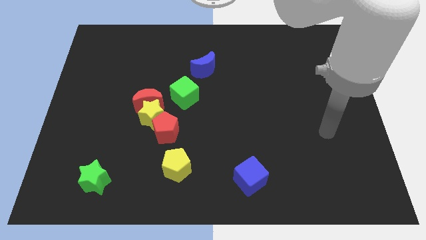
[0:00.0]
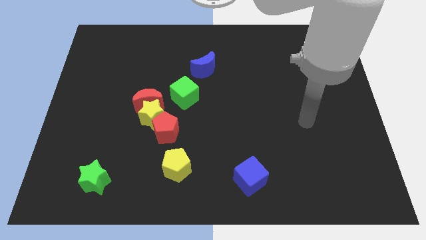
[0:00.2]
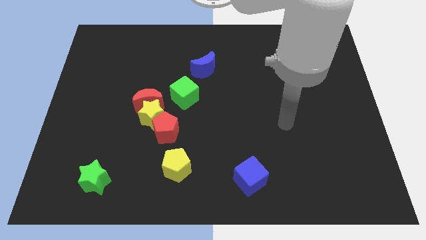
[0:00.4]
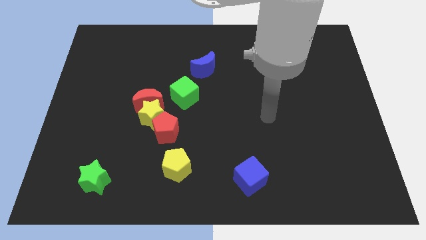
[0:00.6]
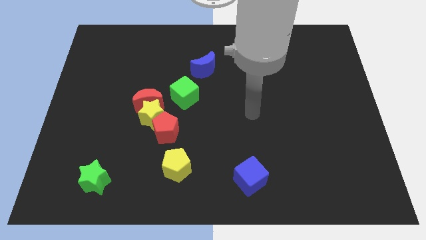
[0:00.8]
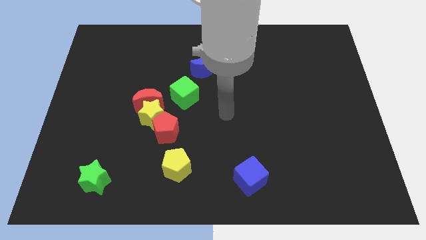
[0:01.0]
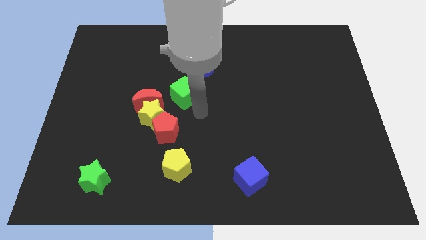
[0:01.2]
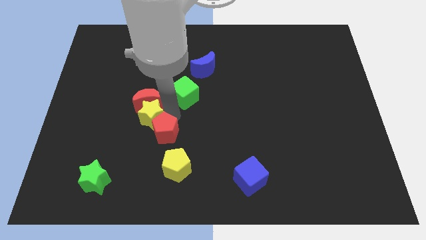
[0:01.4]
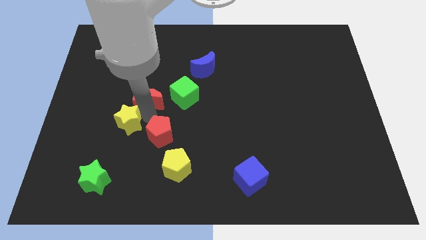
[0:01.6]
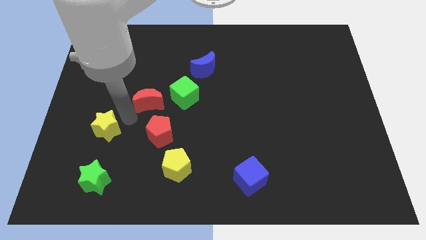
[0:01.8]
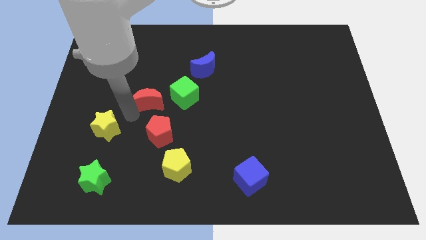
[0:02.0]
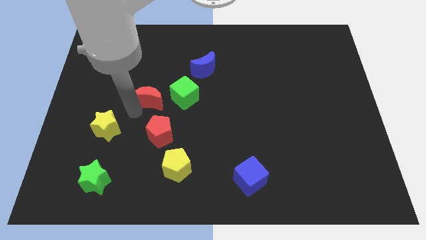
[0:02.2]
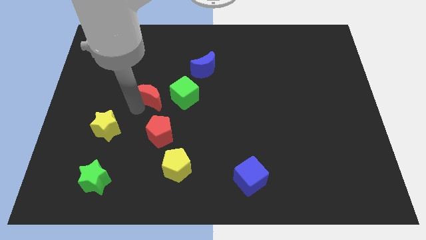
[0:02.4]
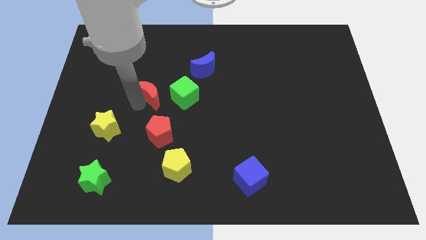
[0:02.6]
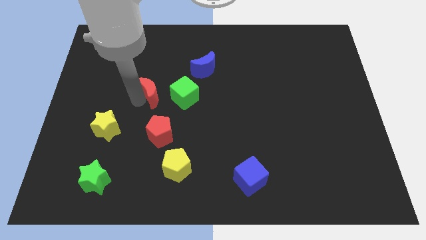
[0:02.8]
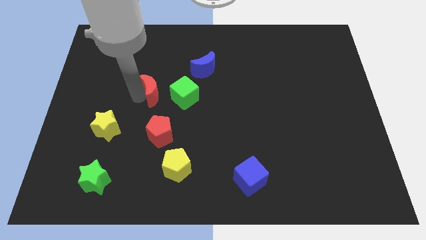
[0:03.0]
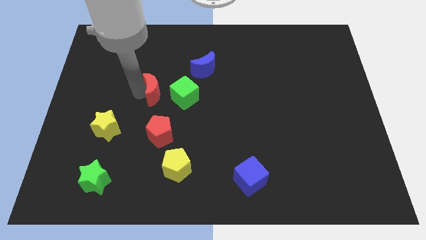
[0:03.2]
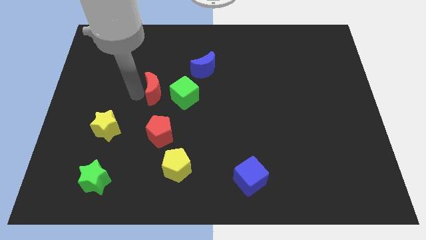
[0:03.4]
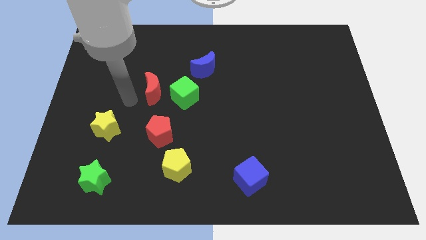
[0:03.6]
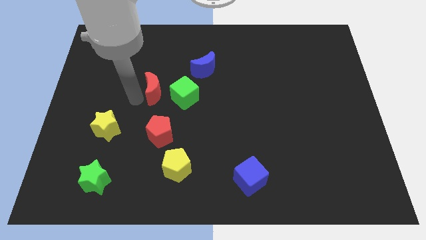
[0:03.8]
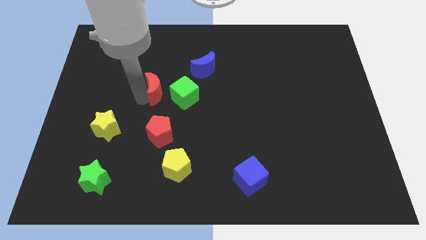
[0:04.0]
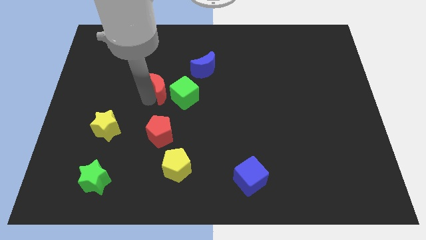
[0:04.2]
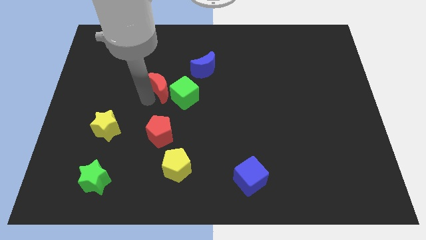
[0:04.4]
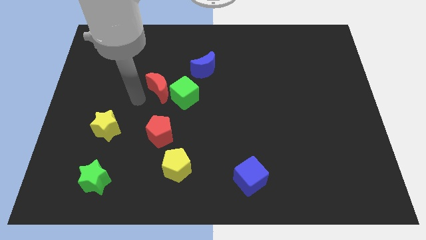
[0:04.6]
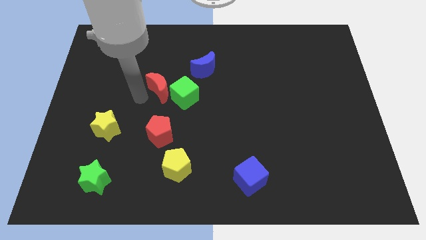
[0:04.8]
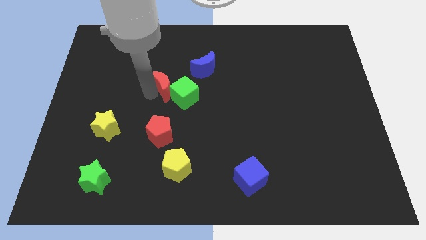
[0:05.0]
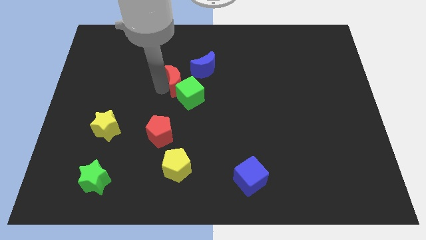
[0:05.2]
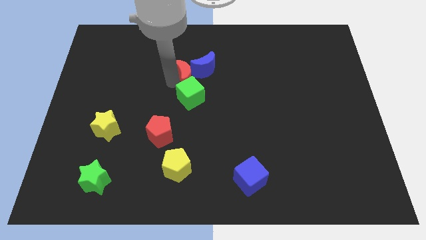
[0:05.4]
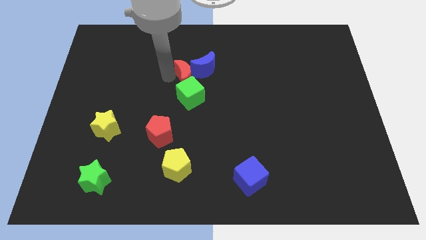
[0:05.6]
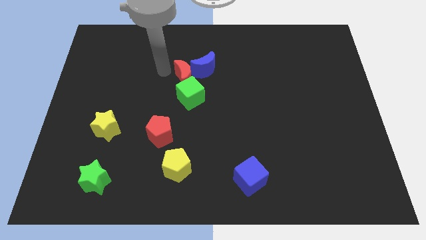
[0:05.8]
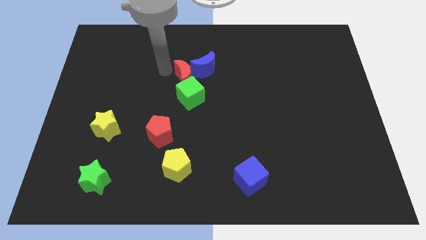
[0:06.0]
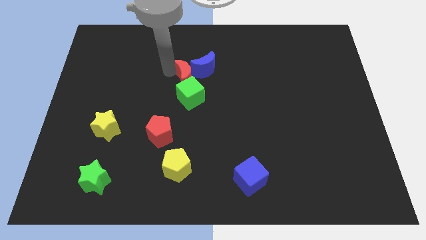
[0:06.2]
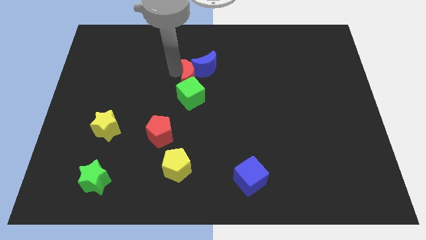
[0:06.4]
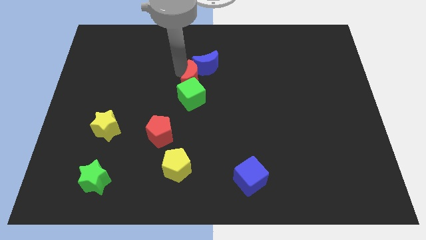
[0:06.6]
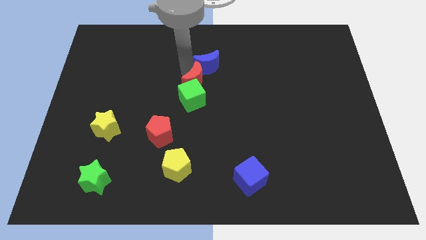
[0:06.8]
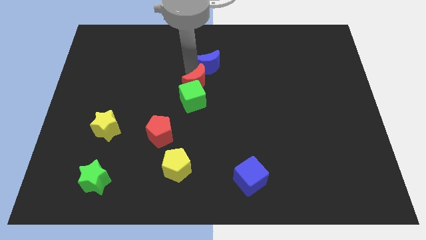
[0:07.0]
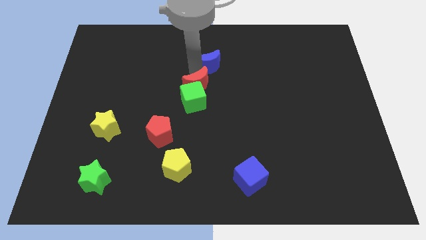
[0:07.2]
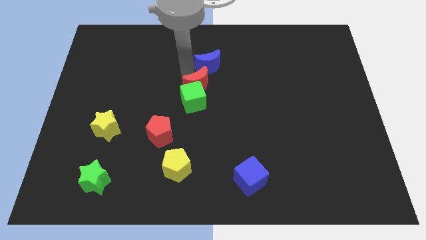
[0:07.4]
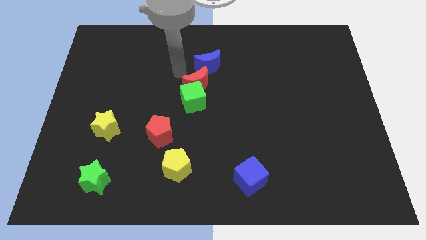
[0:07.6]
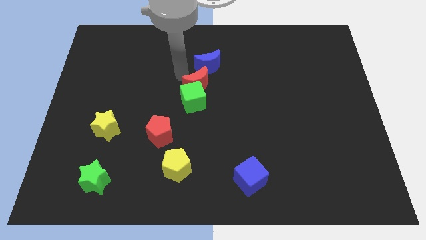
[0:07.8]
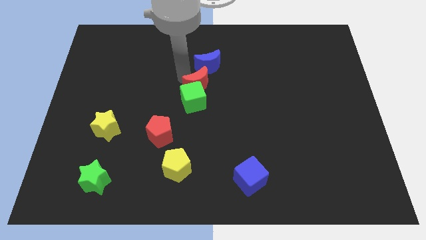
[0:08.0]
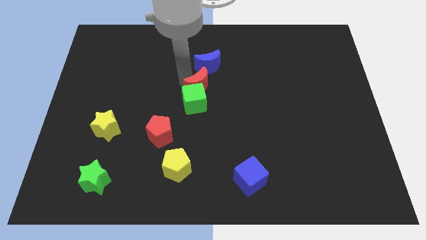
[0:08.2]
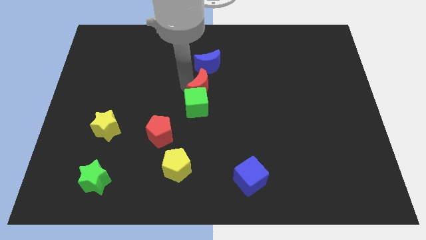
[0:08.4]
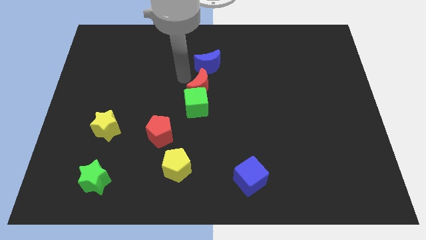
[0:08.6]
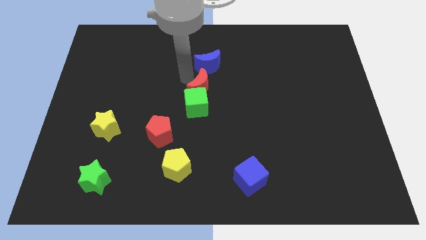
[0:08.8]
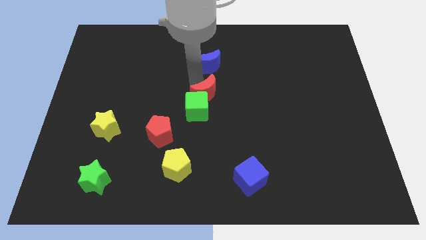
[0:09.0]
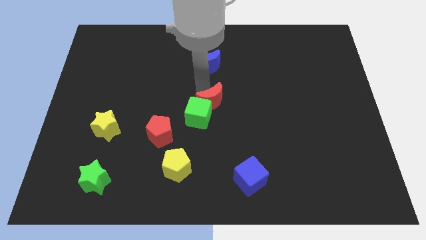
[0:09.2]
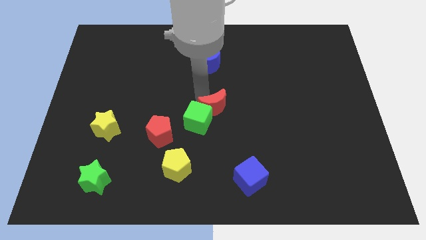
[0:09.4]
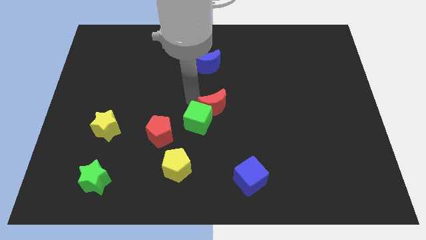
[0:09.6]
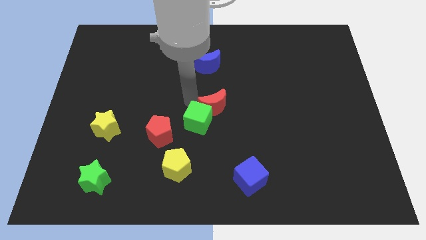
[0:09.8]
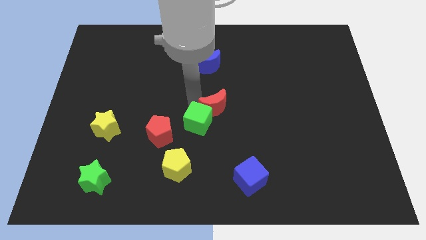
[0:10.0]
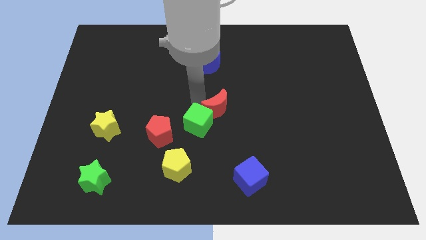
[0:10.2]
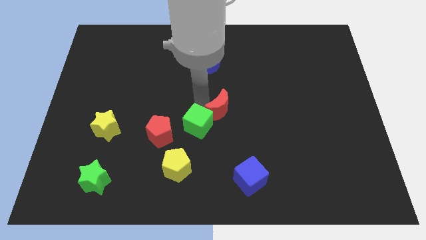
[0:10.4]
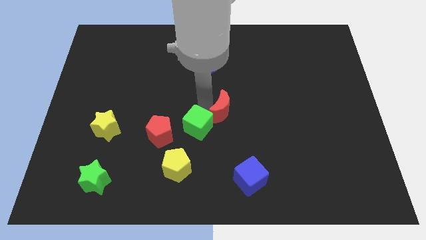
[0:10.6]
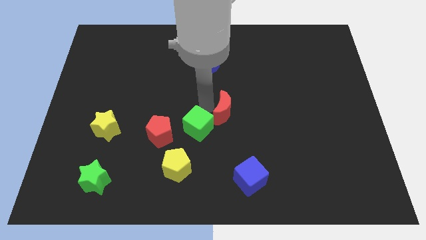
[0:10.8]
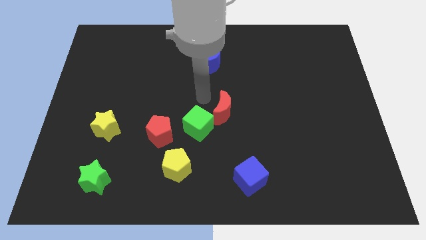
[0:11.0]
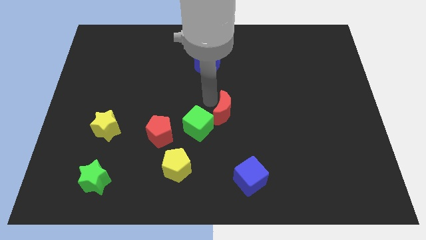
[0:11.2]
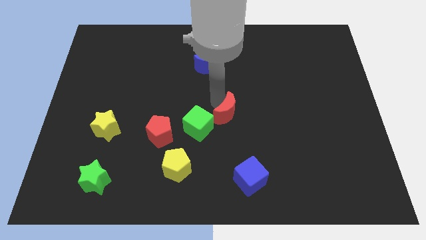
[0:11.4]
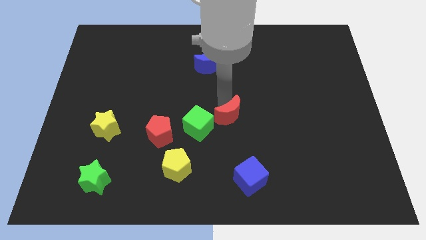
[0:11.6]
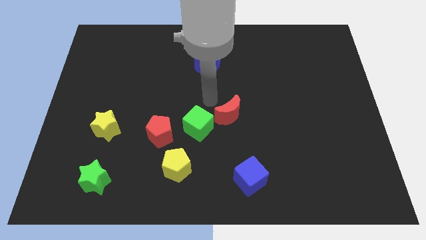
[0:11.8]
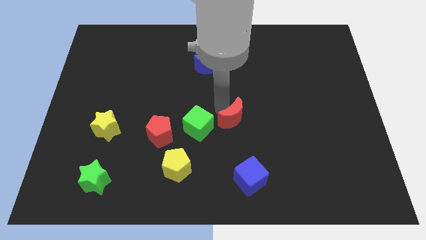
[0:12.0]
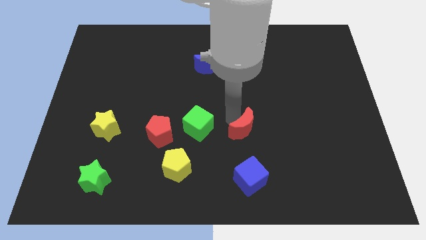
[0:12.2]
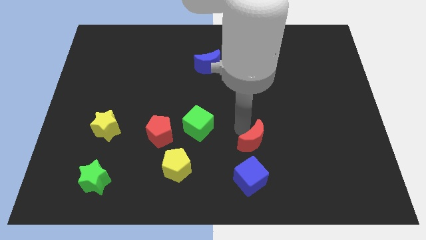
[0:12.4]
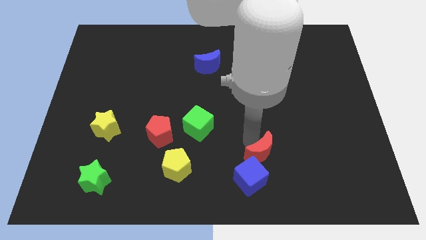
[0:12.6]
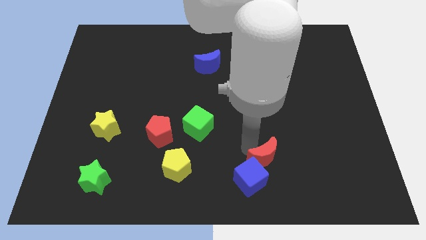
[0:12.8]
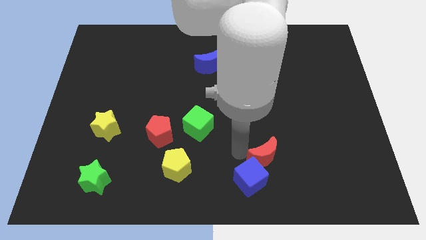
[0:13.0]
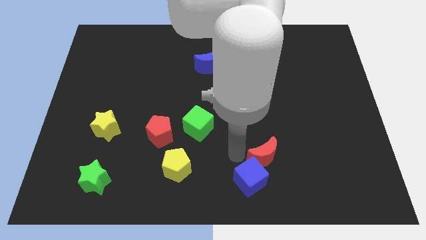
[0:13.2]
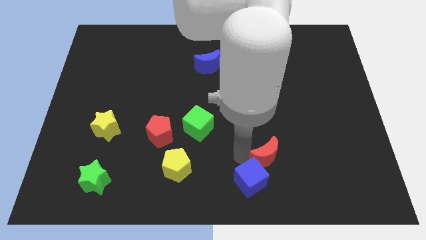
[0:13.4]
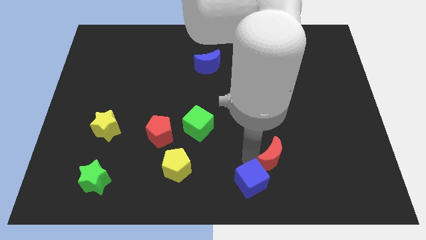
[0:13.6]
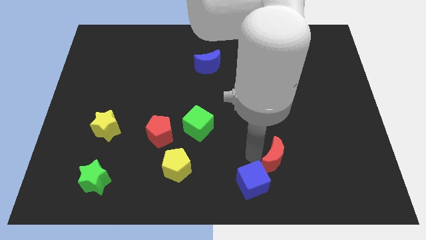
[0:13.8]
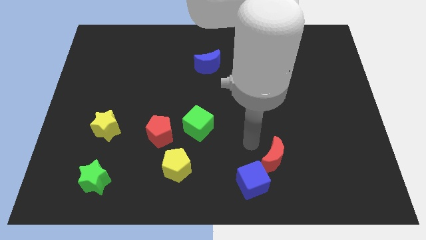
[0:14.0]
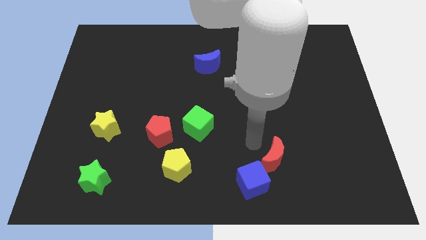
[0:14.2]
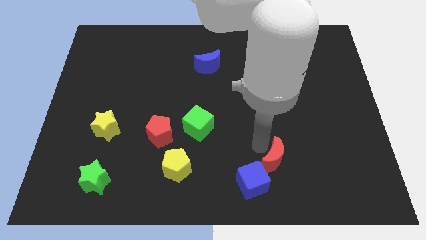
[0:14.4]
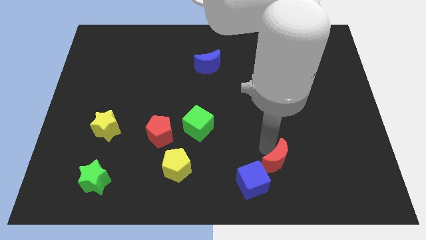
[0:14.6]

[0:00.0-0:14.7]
move the red moon just right of the blue cube
